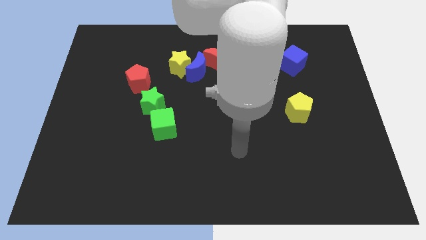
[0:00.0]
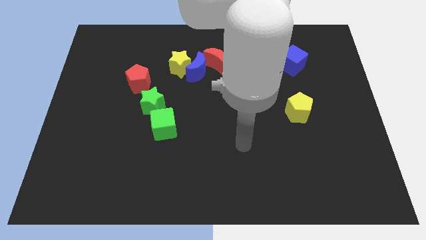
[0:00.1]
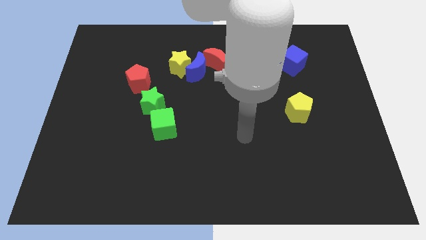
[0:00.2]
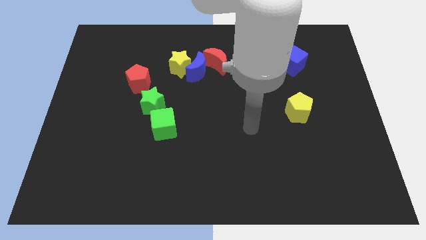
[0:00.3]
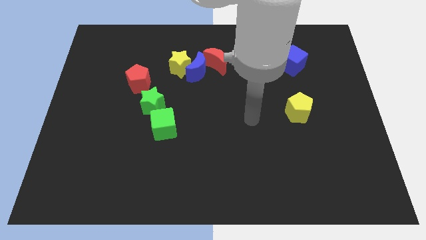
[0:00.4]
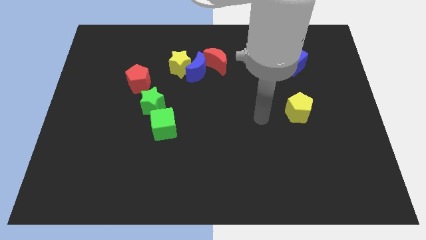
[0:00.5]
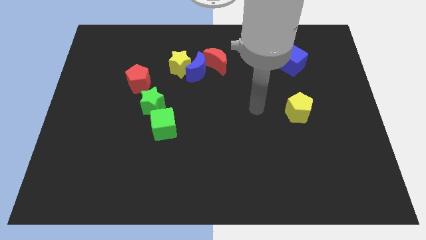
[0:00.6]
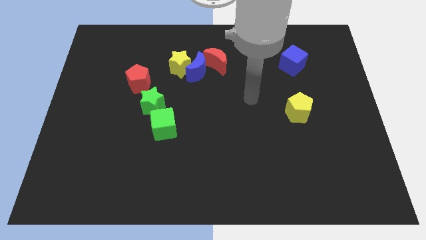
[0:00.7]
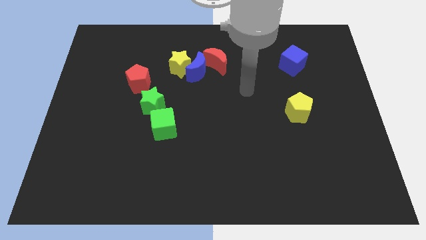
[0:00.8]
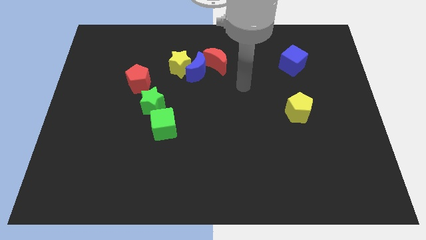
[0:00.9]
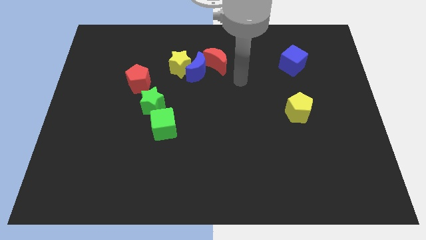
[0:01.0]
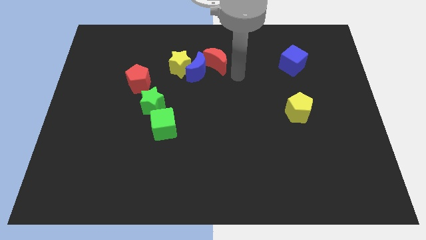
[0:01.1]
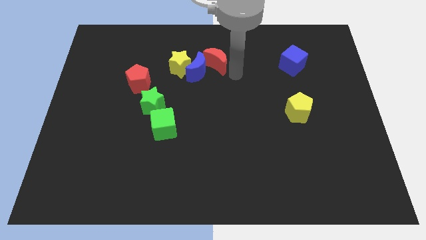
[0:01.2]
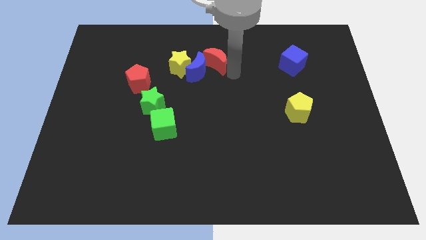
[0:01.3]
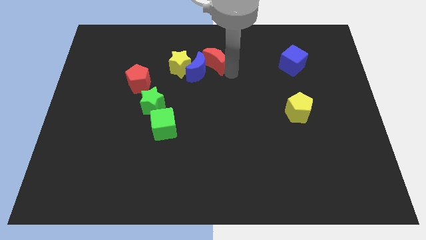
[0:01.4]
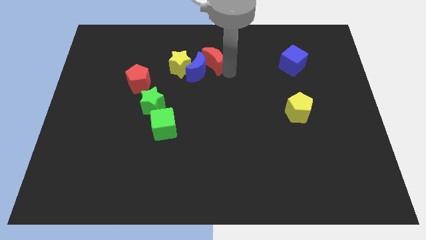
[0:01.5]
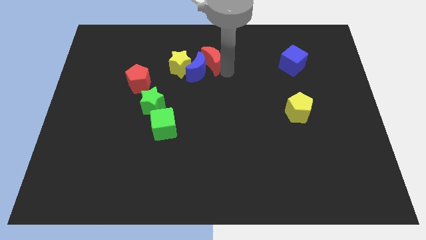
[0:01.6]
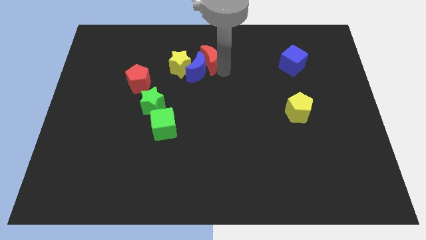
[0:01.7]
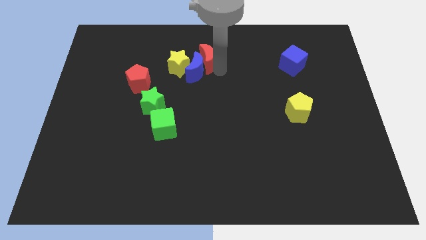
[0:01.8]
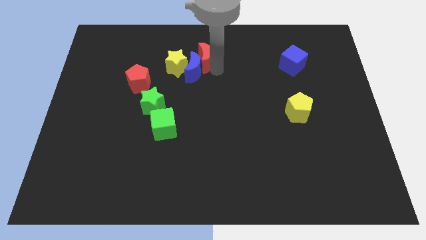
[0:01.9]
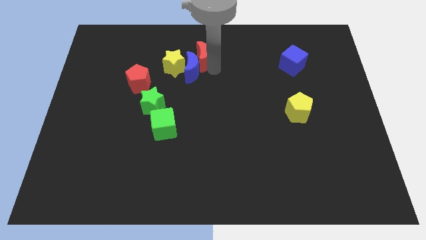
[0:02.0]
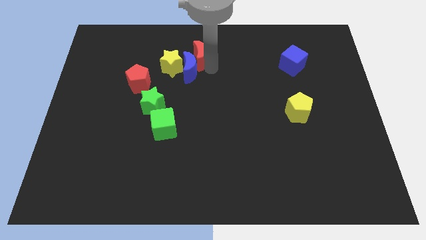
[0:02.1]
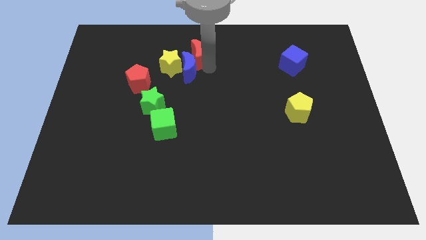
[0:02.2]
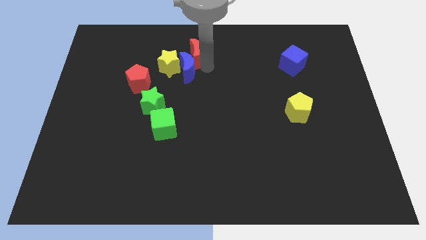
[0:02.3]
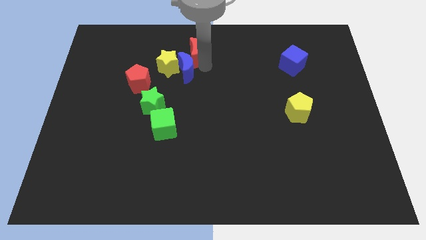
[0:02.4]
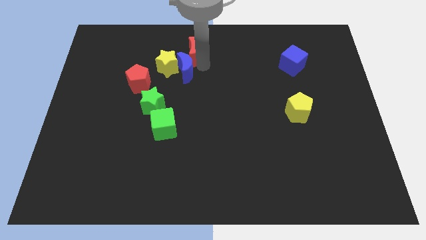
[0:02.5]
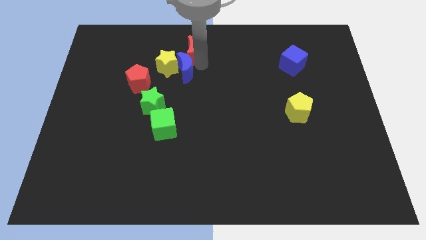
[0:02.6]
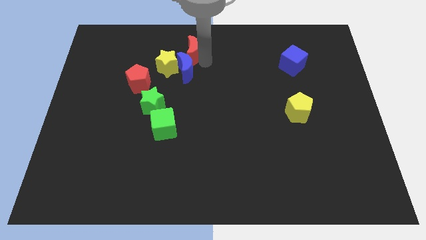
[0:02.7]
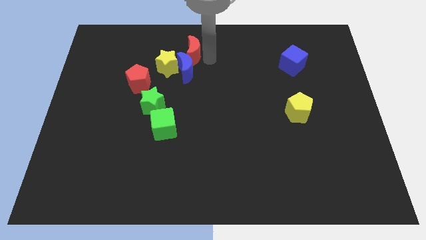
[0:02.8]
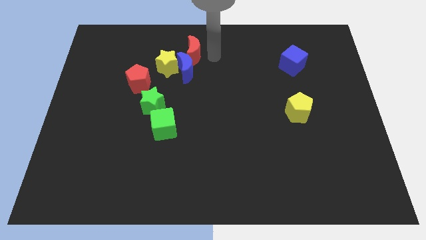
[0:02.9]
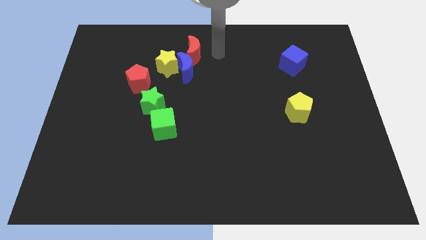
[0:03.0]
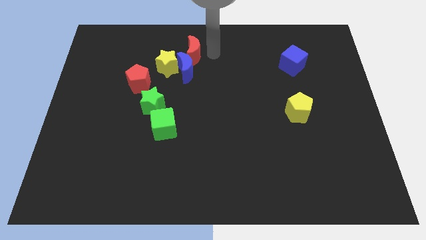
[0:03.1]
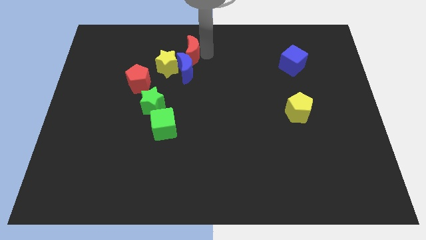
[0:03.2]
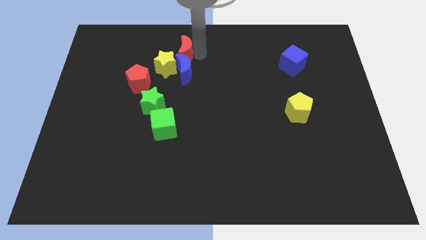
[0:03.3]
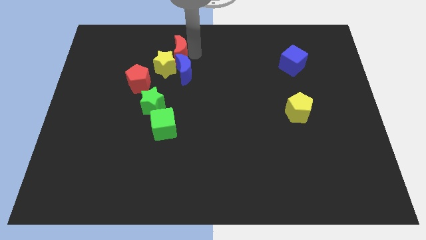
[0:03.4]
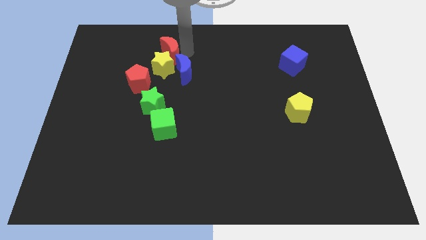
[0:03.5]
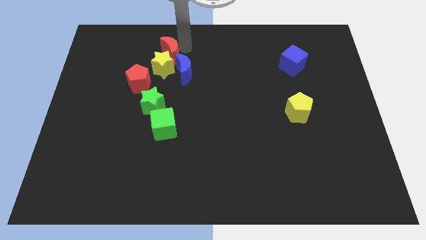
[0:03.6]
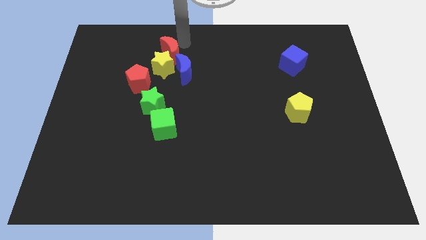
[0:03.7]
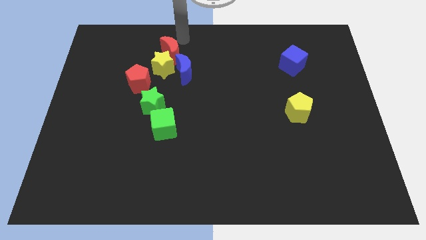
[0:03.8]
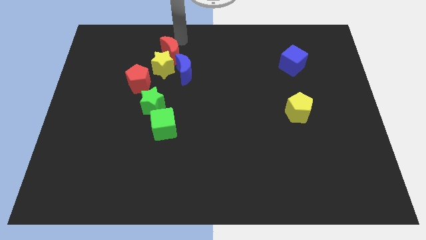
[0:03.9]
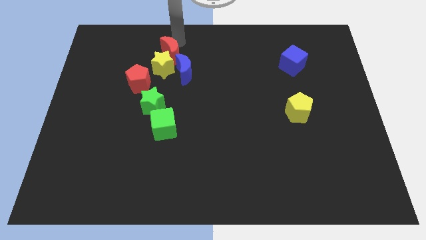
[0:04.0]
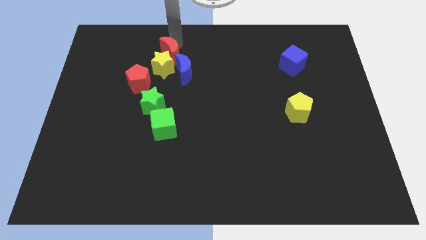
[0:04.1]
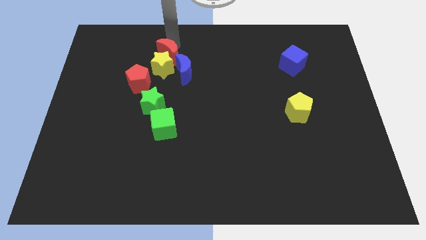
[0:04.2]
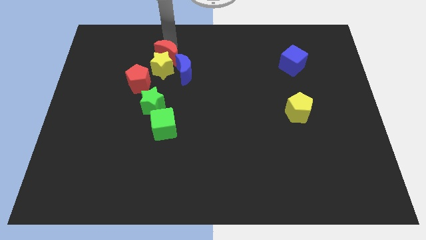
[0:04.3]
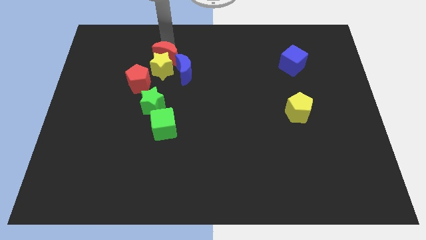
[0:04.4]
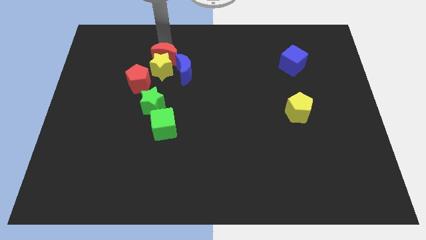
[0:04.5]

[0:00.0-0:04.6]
slide the red moon to the top side of the green star

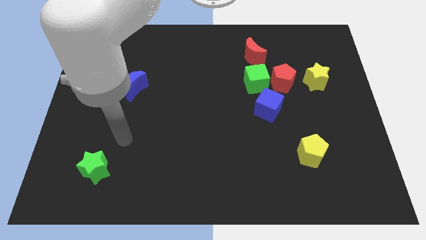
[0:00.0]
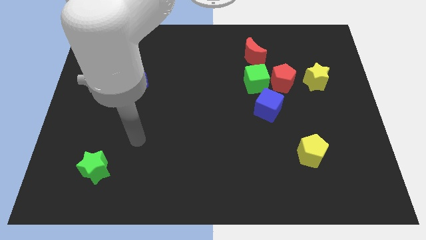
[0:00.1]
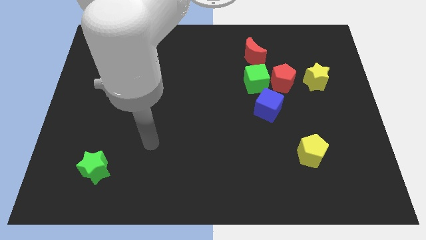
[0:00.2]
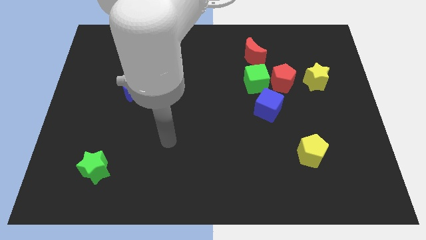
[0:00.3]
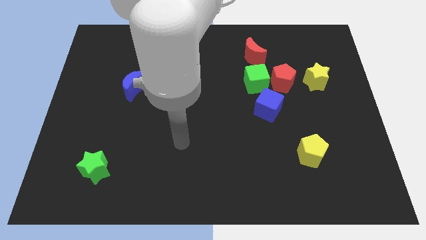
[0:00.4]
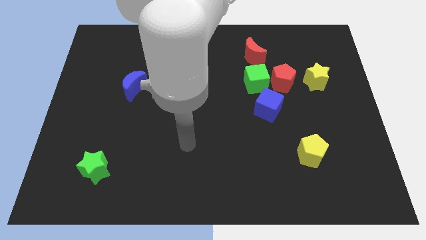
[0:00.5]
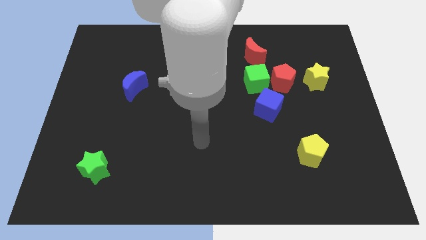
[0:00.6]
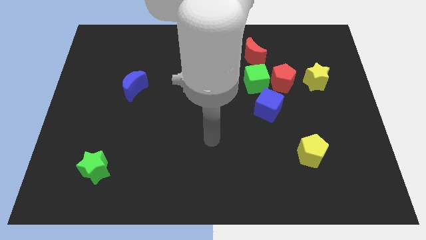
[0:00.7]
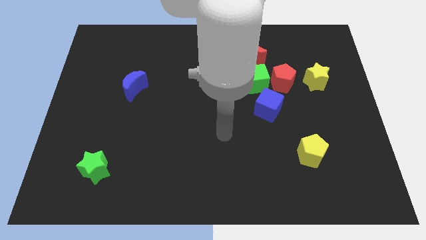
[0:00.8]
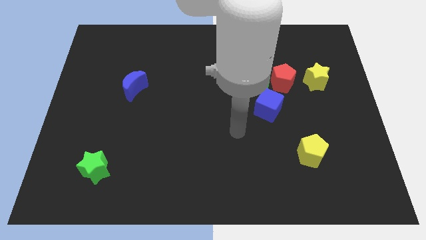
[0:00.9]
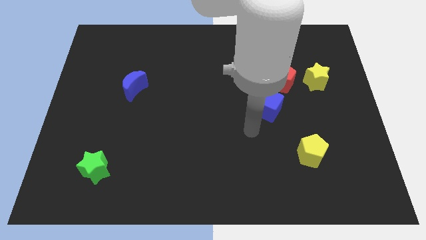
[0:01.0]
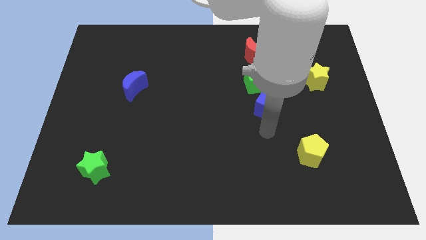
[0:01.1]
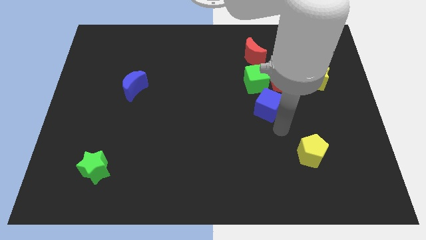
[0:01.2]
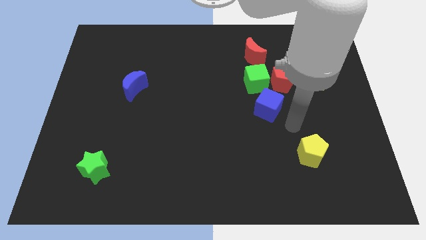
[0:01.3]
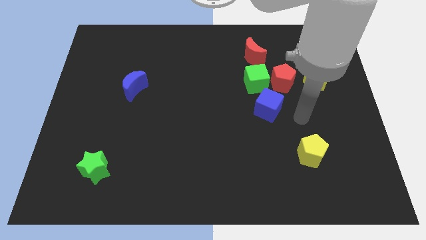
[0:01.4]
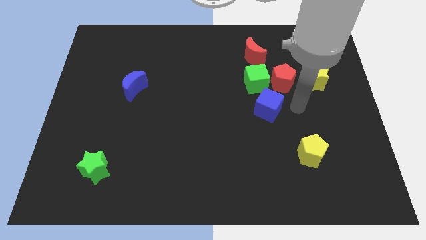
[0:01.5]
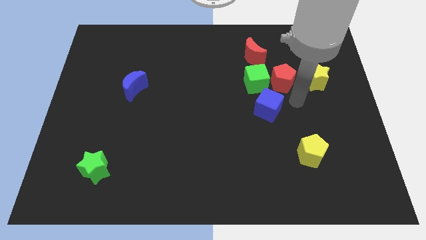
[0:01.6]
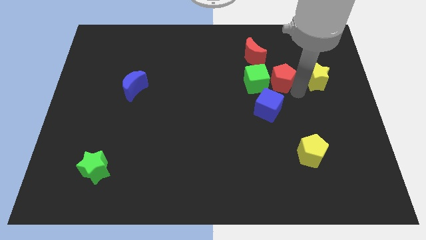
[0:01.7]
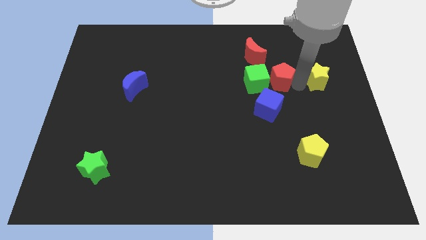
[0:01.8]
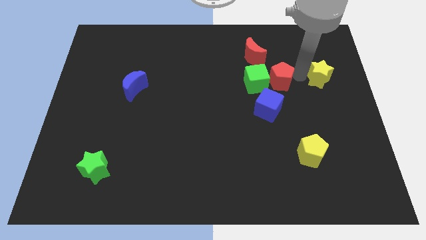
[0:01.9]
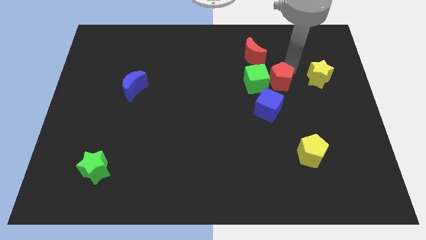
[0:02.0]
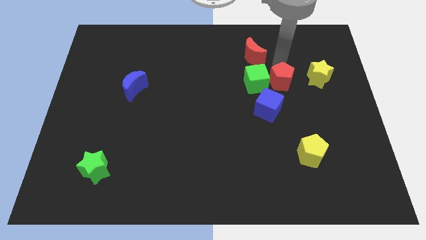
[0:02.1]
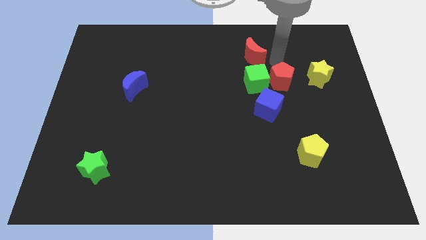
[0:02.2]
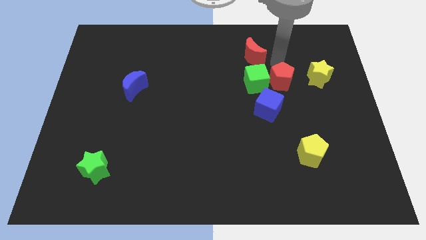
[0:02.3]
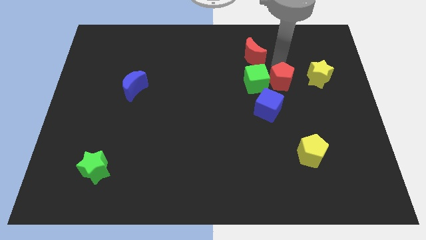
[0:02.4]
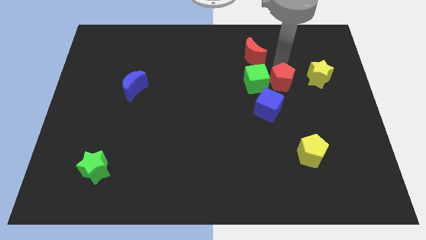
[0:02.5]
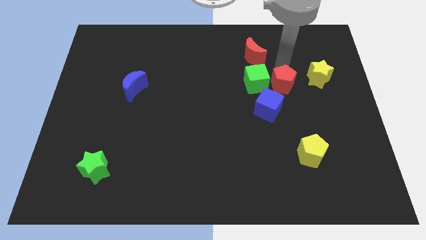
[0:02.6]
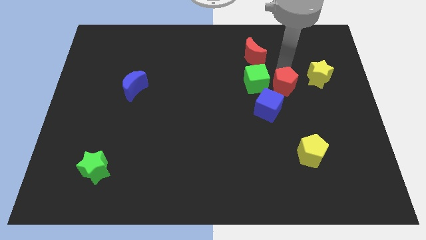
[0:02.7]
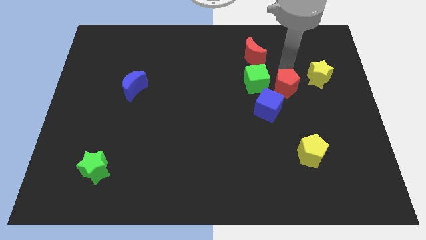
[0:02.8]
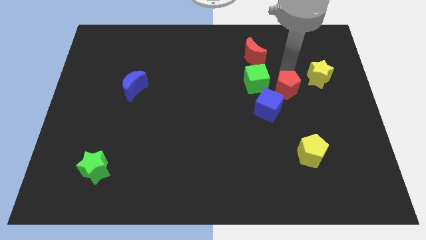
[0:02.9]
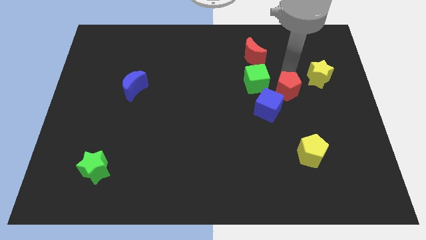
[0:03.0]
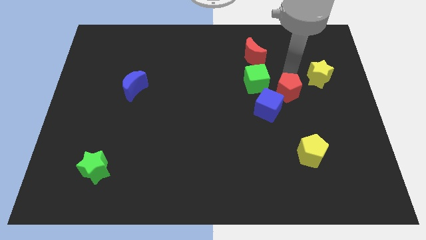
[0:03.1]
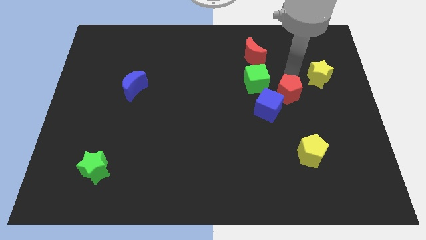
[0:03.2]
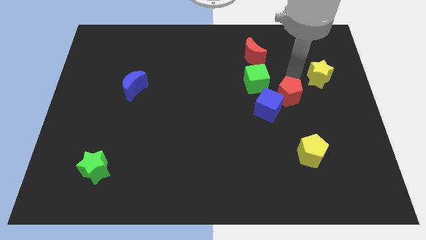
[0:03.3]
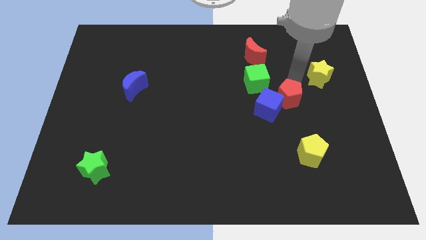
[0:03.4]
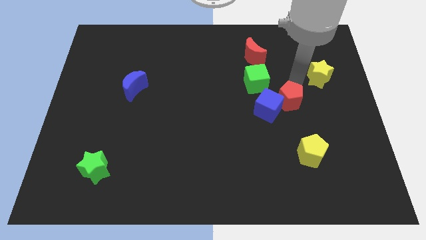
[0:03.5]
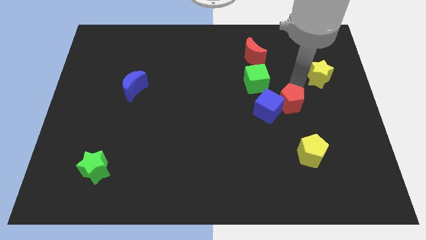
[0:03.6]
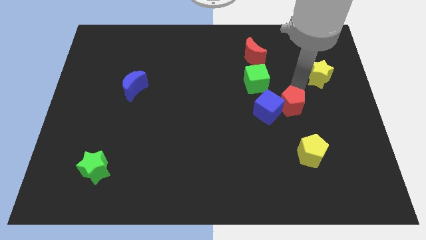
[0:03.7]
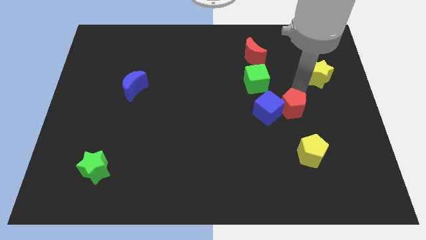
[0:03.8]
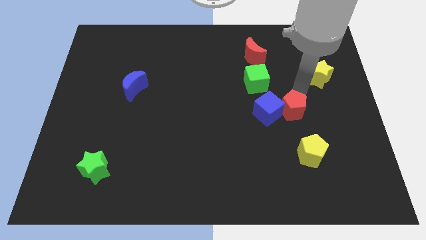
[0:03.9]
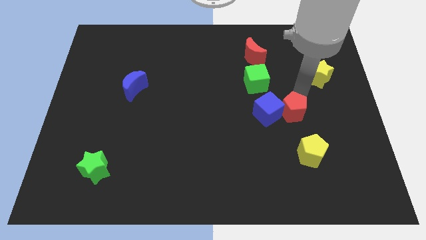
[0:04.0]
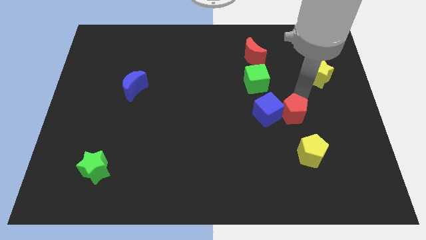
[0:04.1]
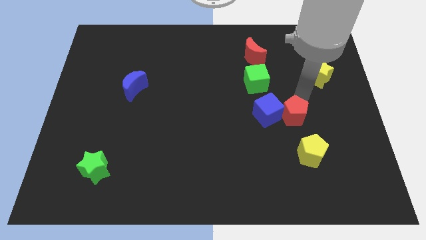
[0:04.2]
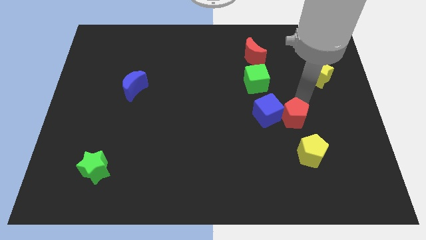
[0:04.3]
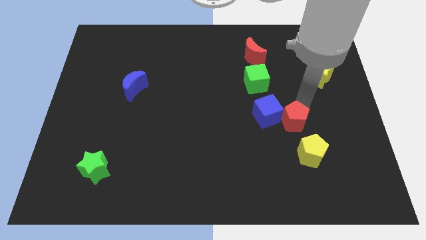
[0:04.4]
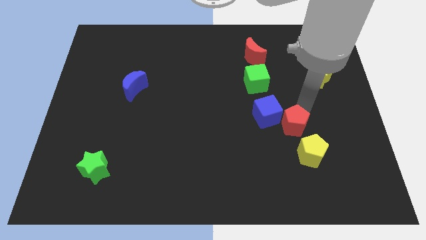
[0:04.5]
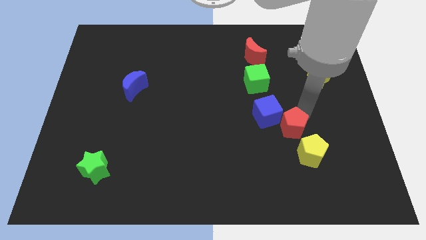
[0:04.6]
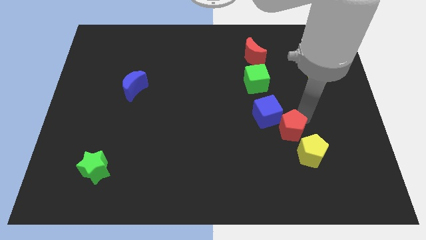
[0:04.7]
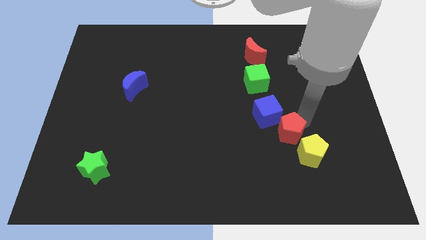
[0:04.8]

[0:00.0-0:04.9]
slide the red pentagon to the bottom side of the blue cube
